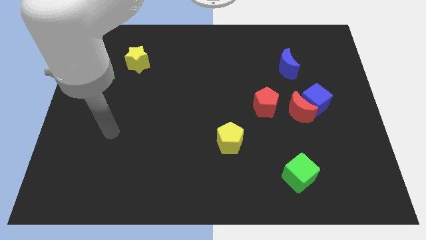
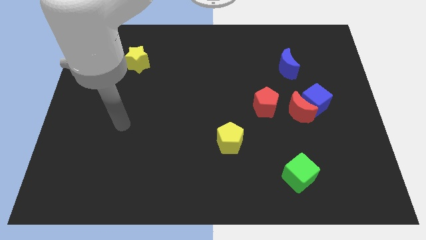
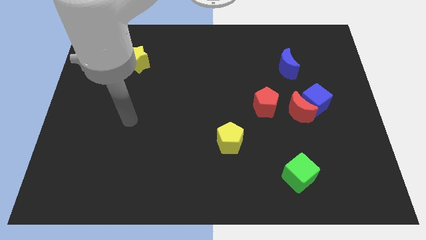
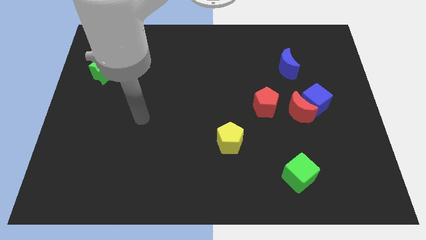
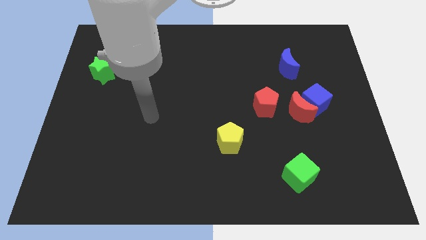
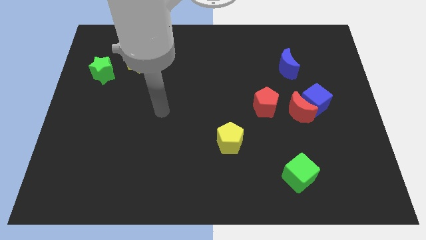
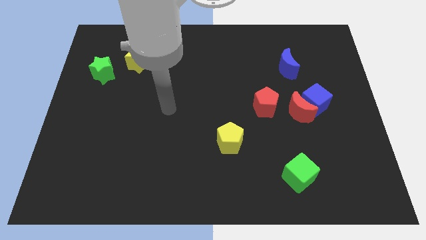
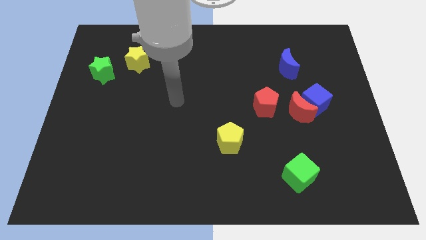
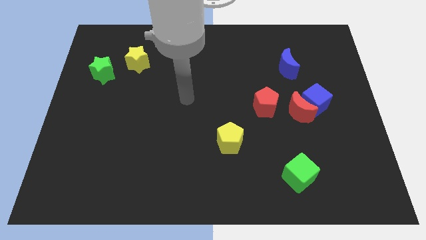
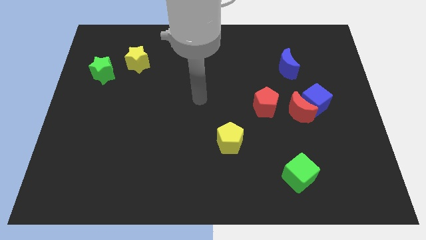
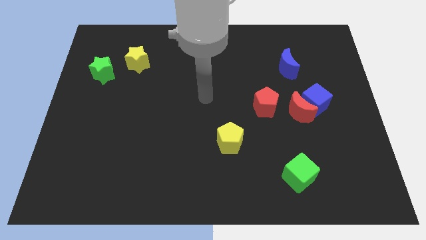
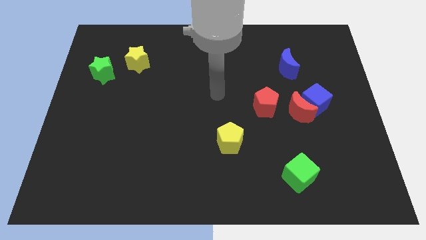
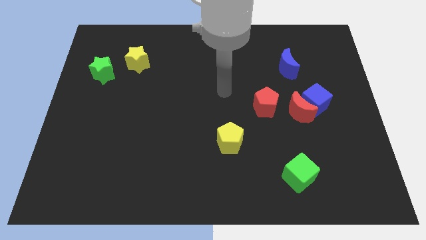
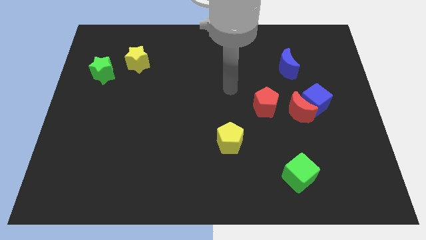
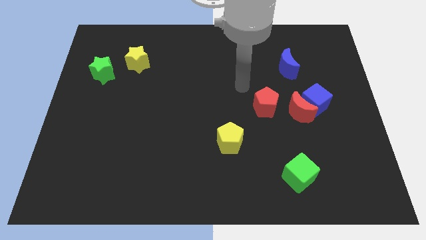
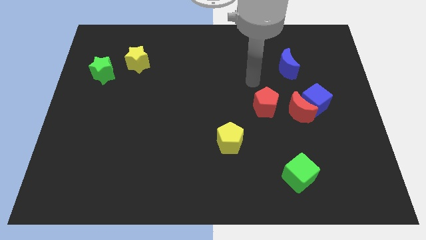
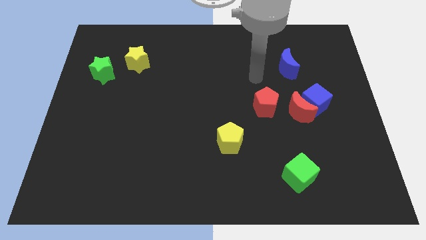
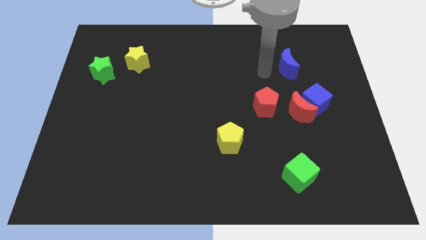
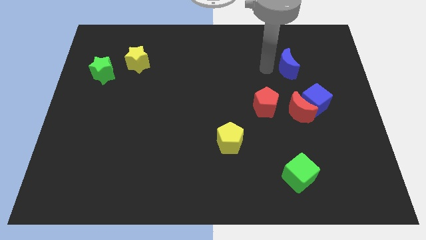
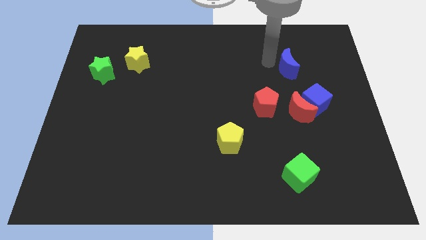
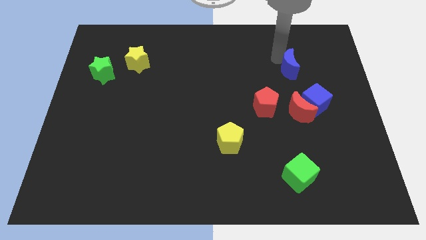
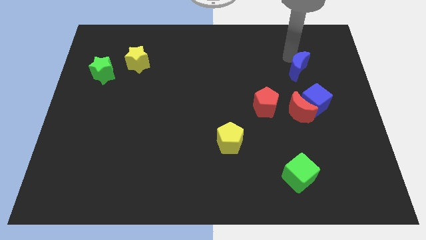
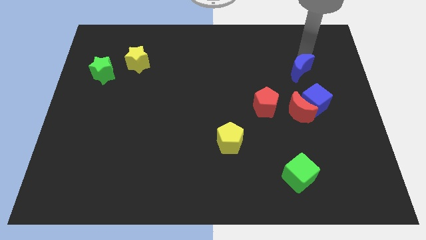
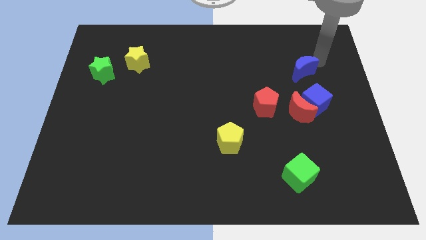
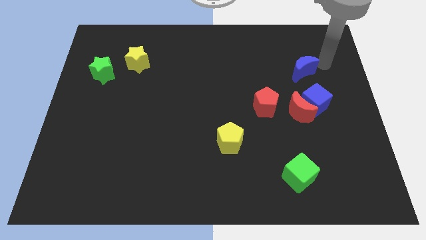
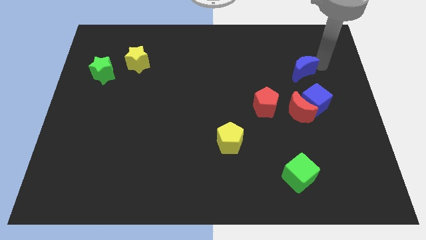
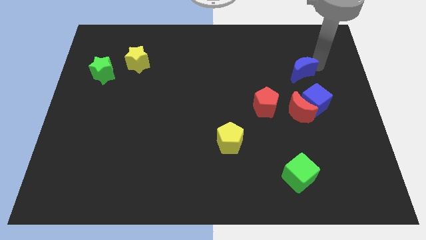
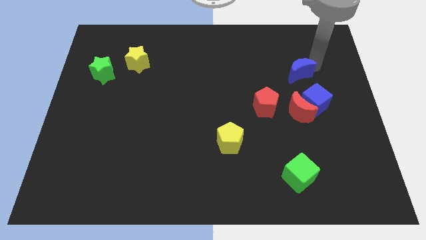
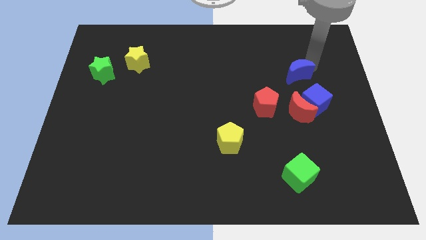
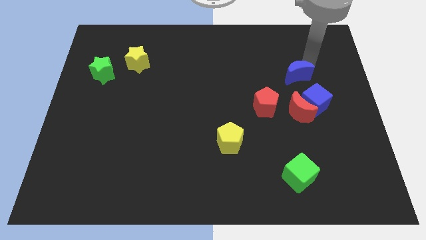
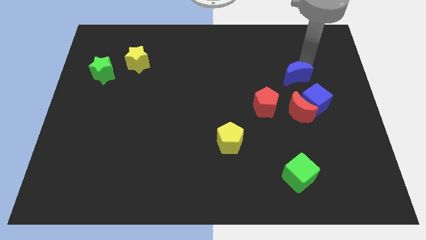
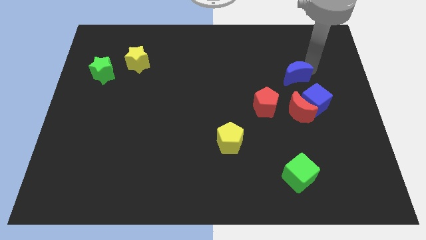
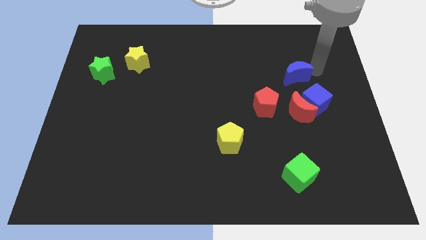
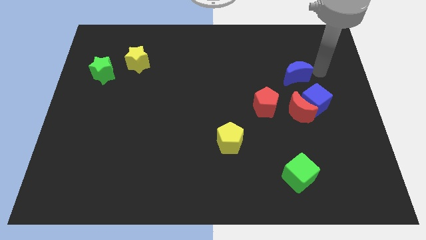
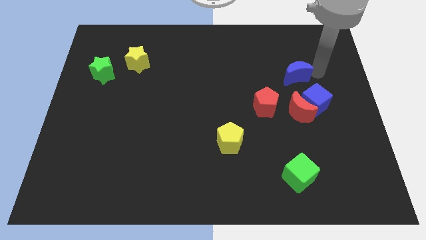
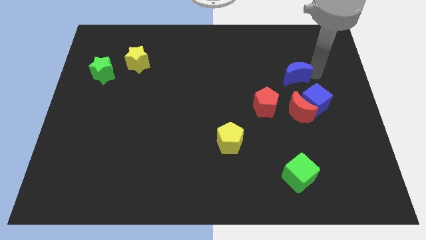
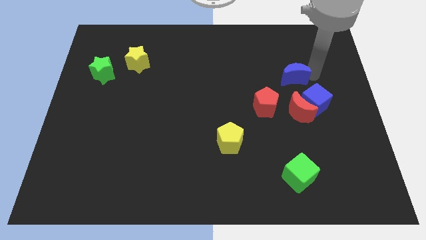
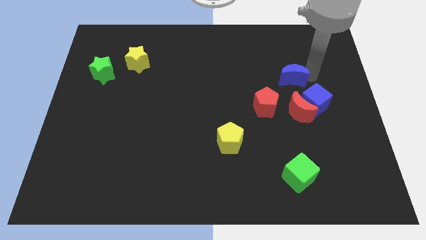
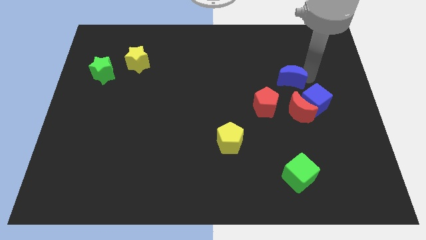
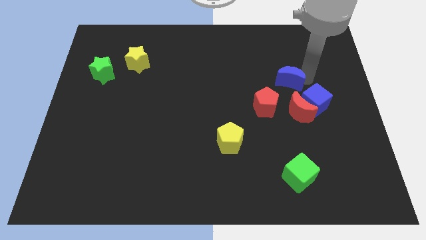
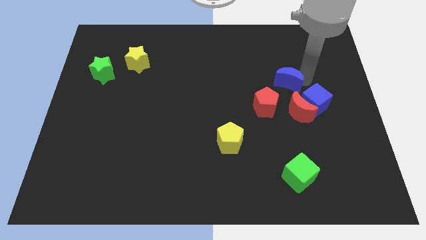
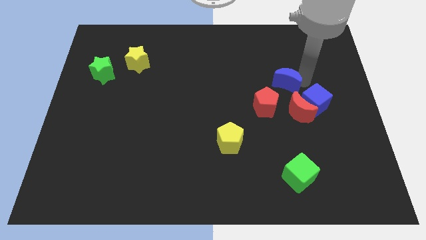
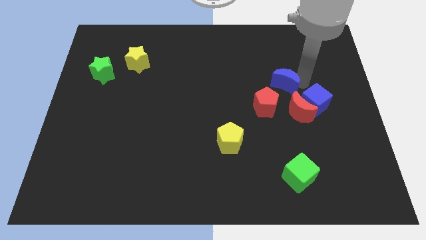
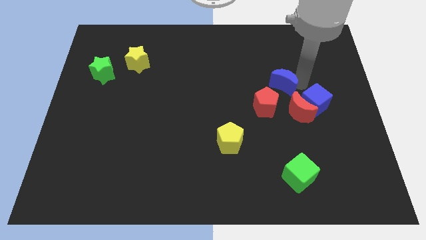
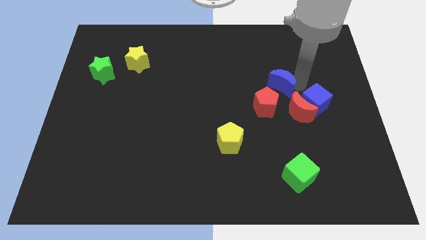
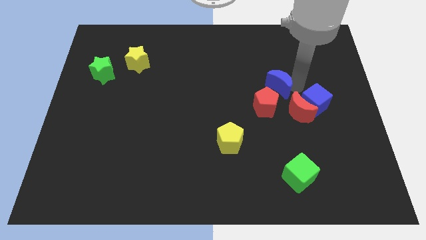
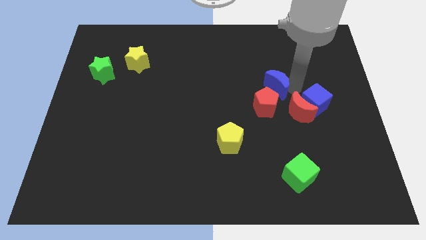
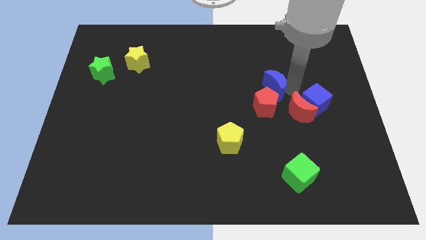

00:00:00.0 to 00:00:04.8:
slightly move the blue moon downwards and to the left

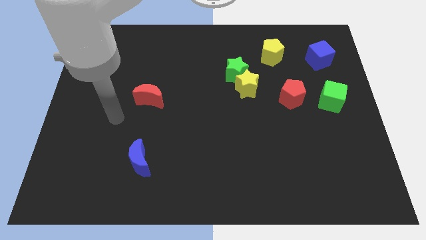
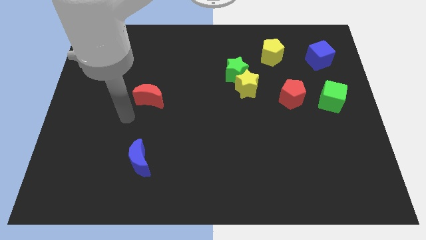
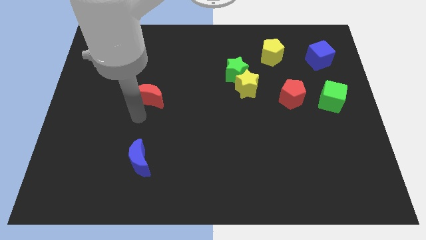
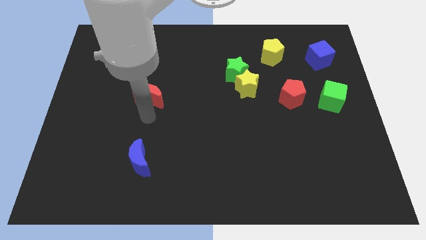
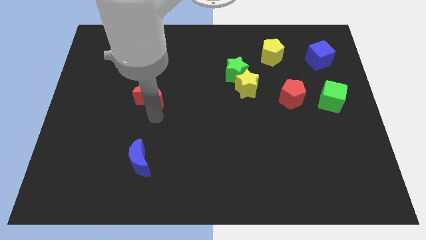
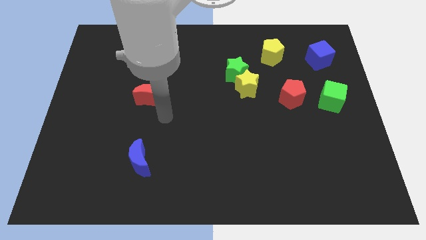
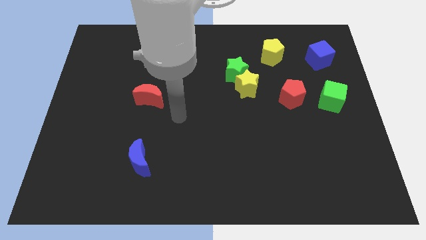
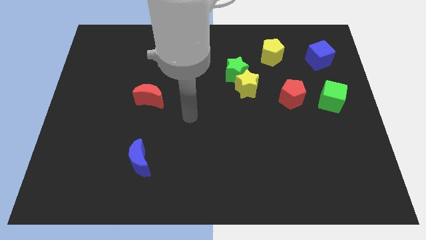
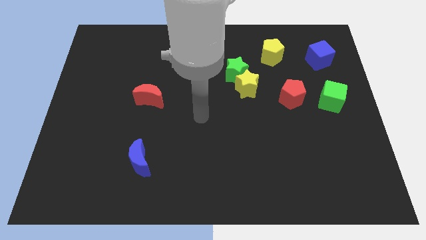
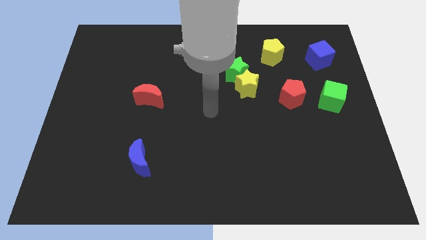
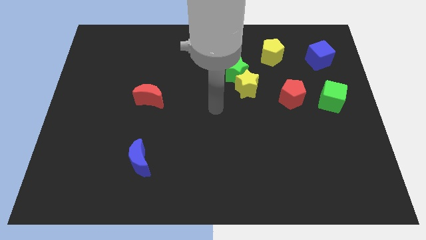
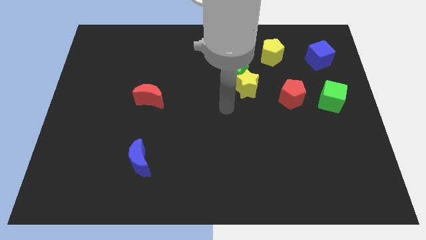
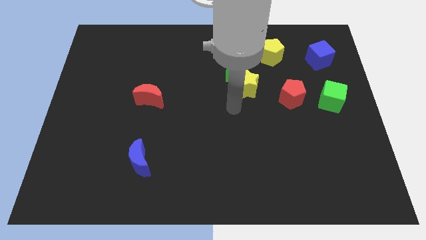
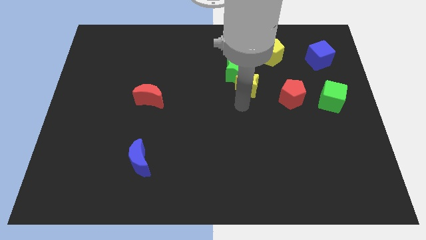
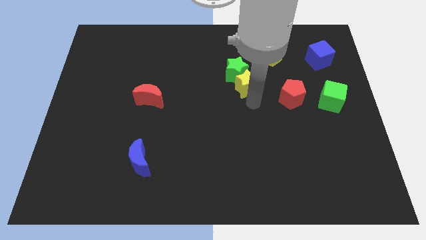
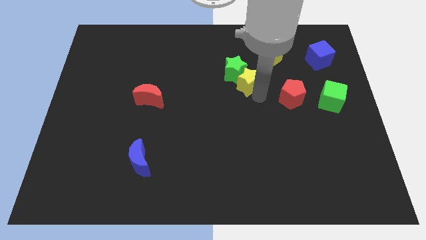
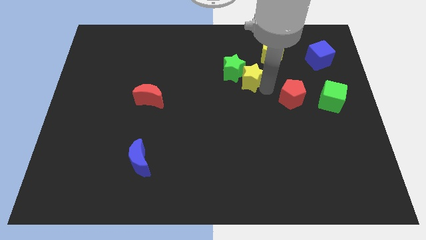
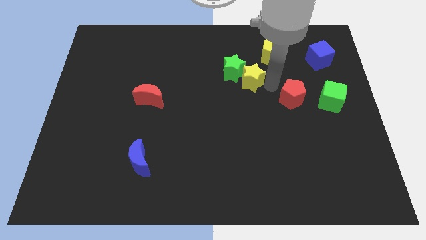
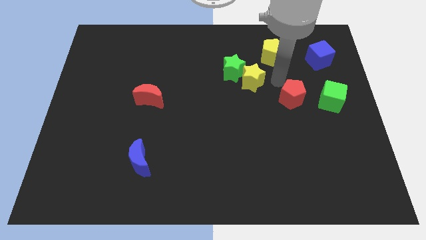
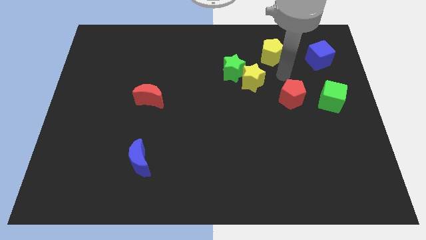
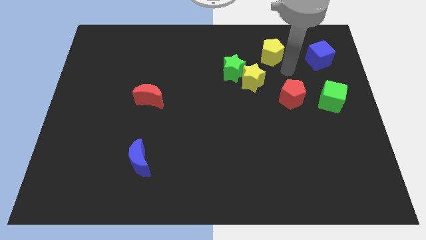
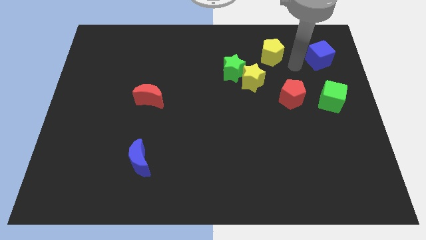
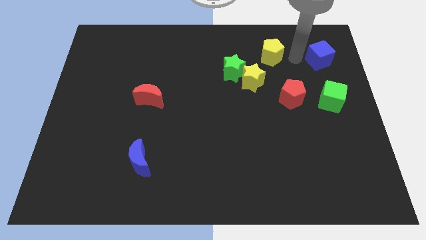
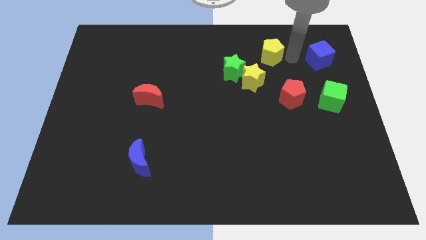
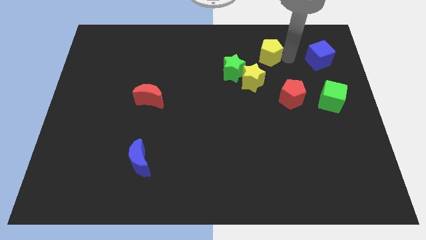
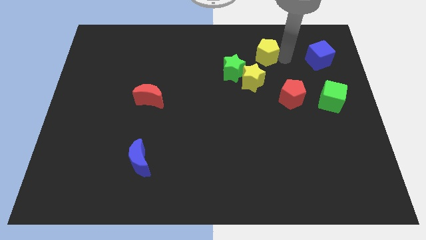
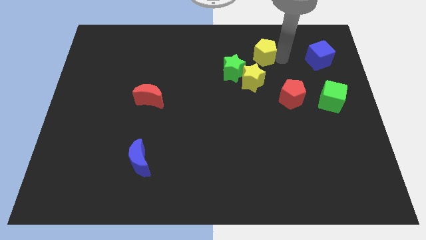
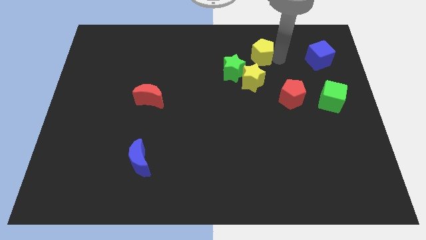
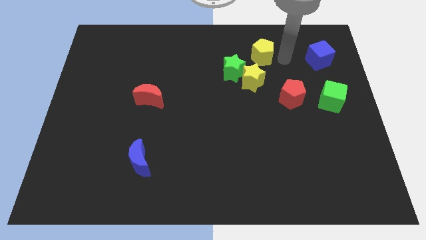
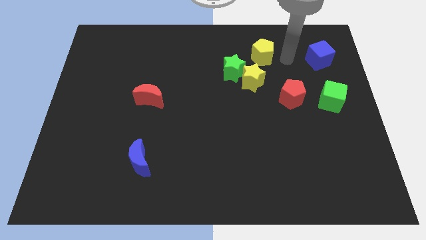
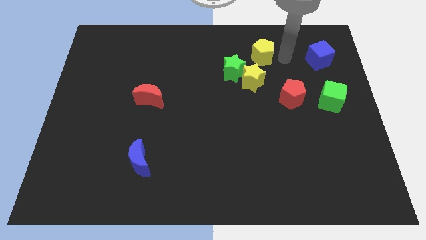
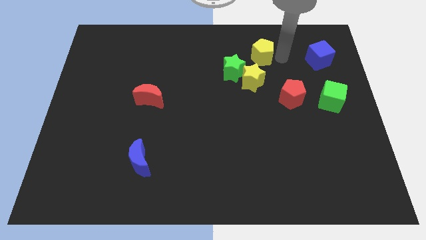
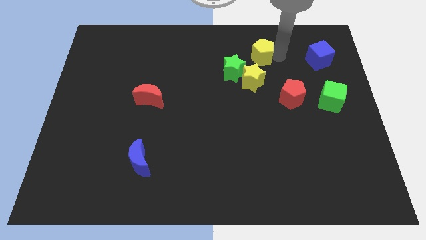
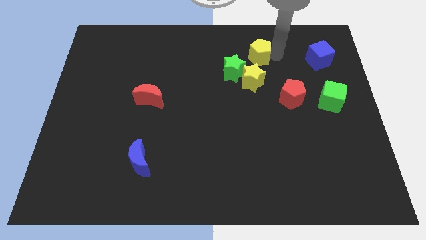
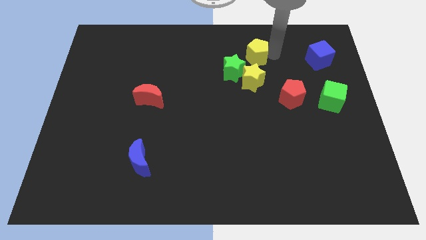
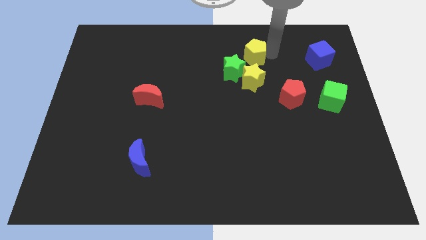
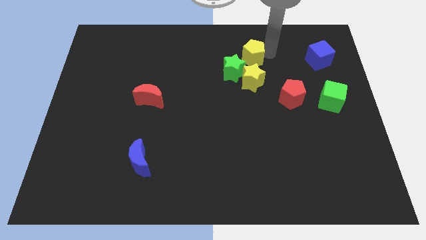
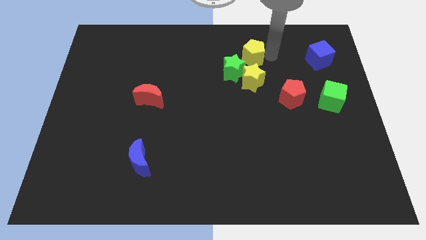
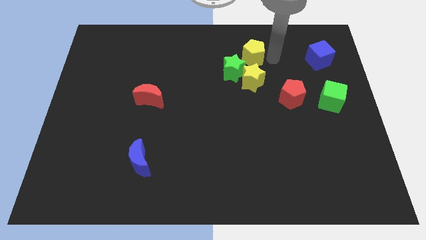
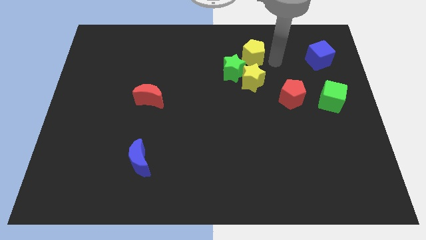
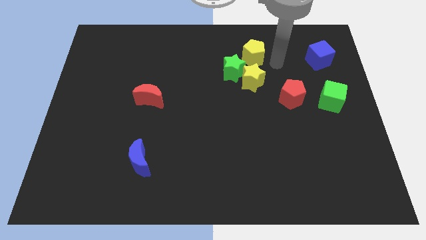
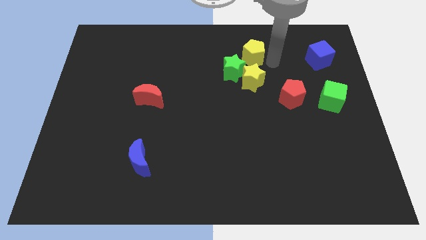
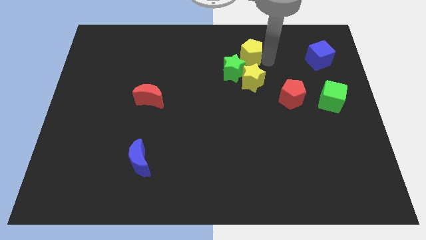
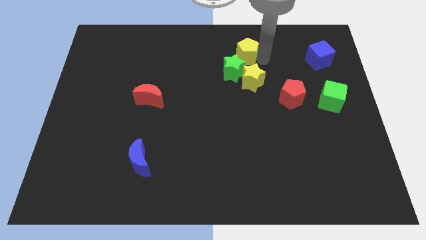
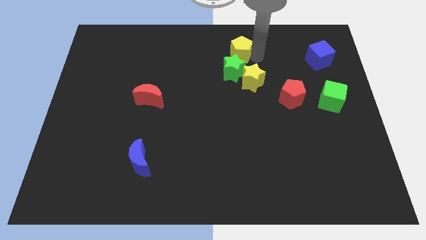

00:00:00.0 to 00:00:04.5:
slightly move the yellow pentagon left
